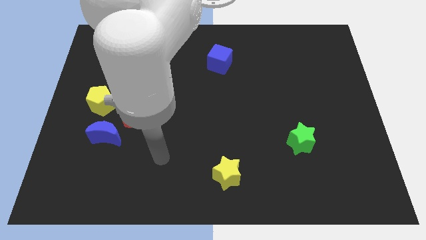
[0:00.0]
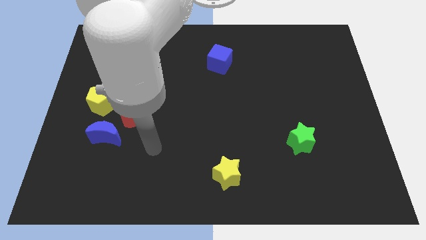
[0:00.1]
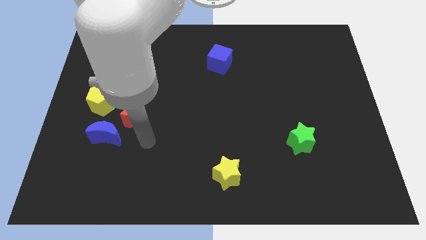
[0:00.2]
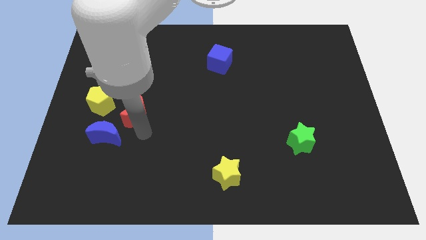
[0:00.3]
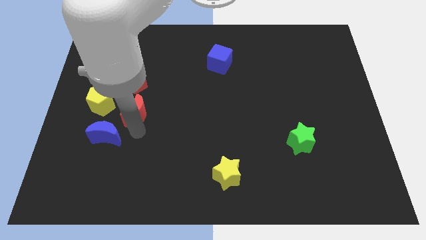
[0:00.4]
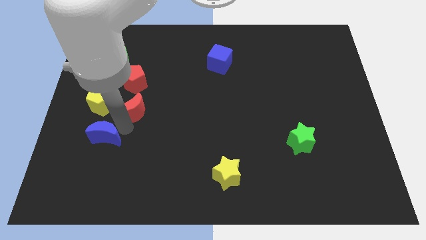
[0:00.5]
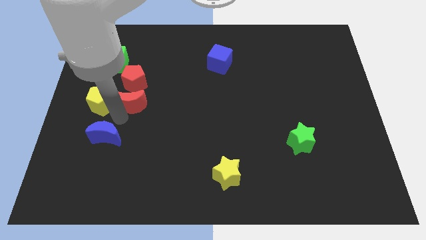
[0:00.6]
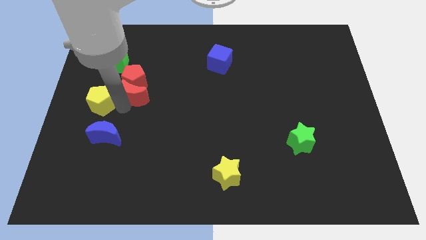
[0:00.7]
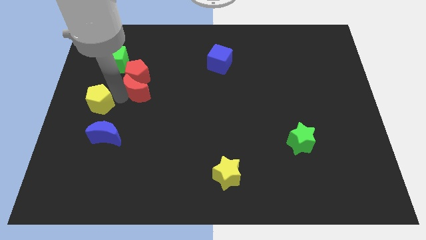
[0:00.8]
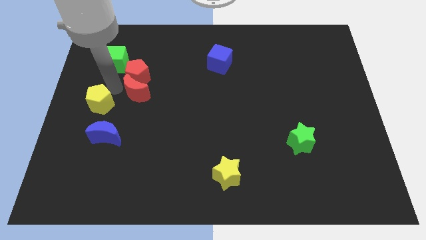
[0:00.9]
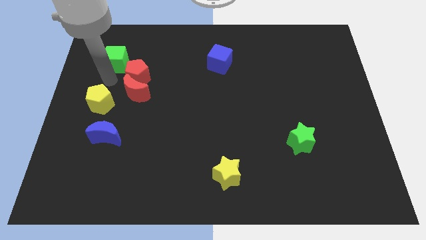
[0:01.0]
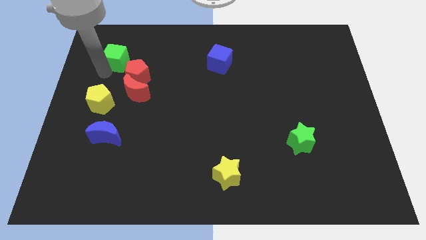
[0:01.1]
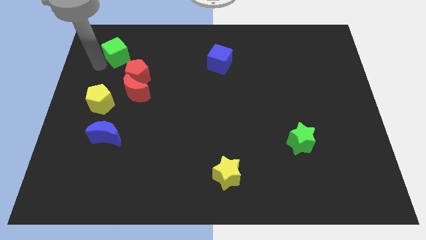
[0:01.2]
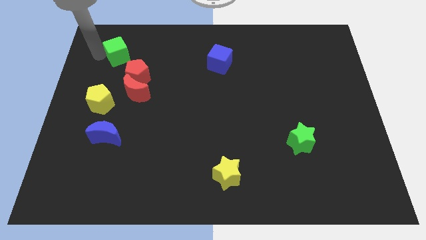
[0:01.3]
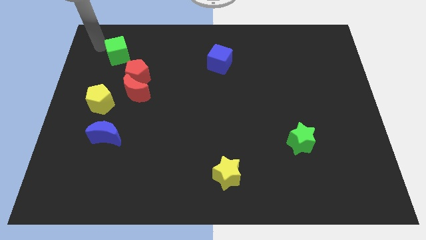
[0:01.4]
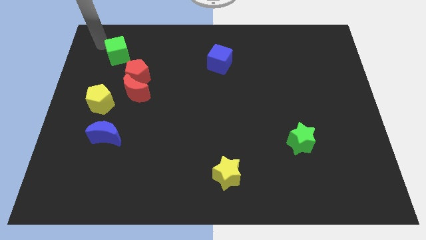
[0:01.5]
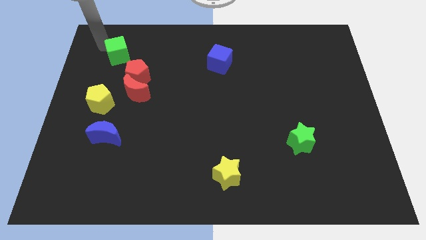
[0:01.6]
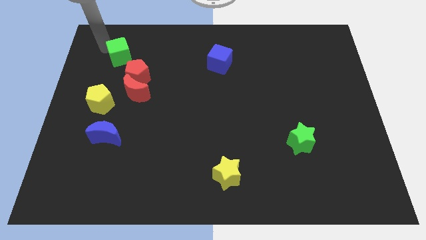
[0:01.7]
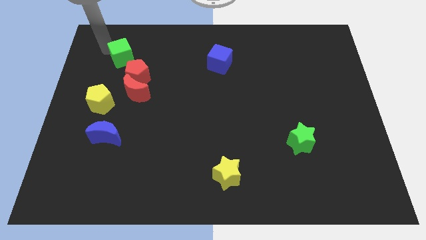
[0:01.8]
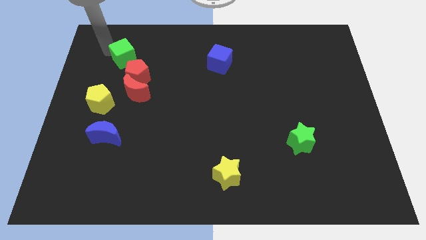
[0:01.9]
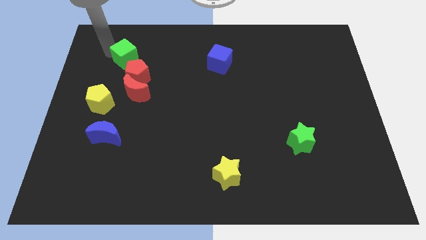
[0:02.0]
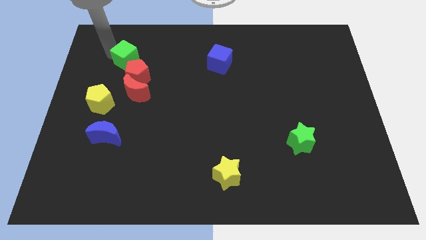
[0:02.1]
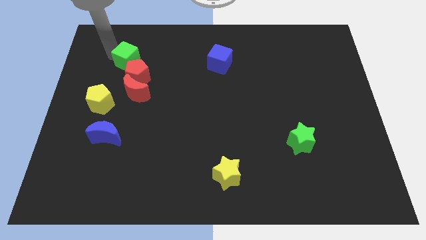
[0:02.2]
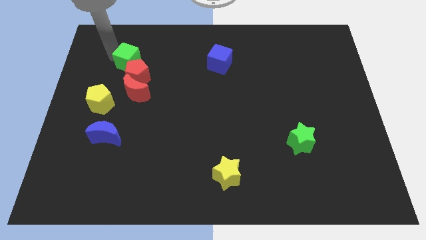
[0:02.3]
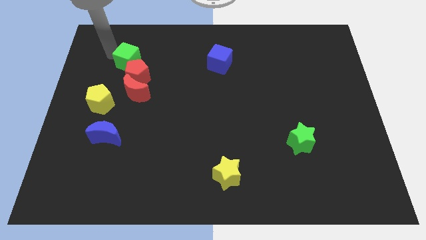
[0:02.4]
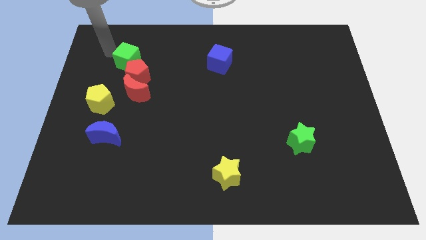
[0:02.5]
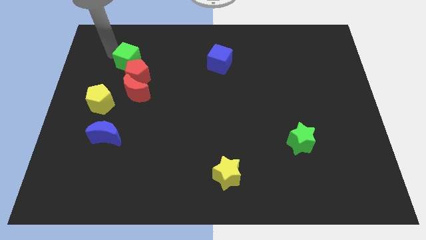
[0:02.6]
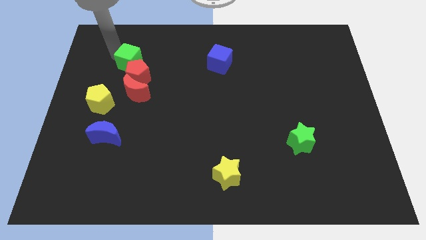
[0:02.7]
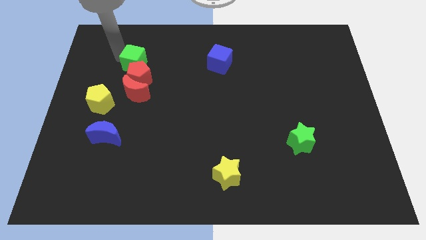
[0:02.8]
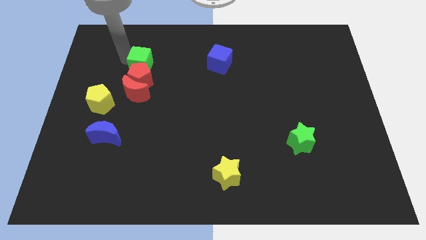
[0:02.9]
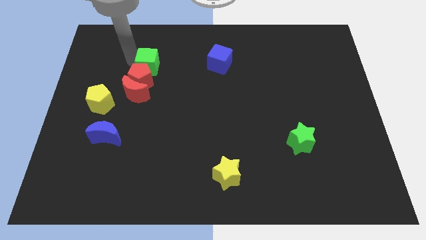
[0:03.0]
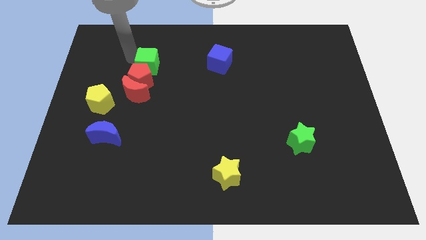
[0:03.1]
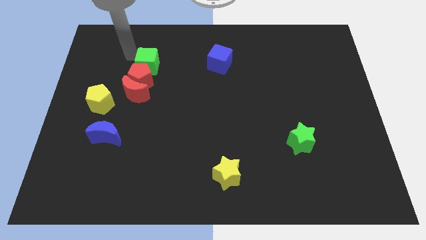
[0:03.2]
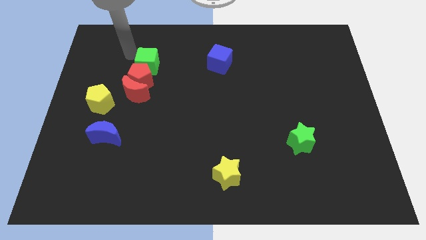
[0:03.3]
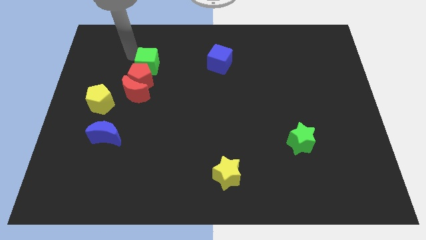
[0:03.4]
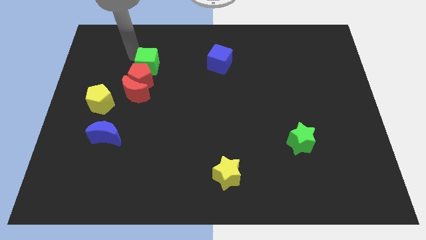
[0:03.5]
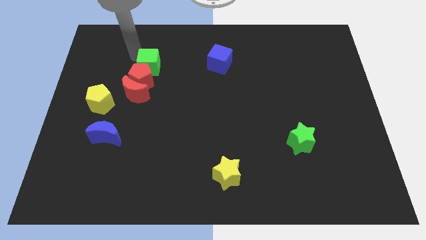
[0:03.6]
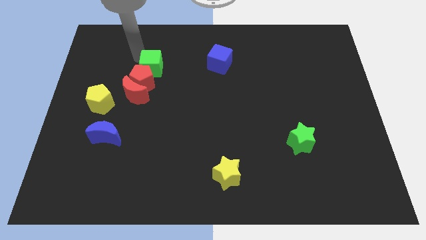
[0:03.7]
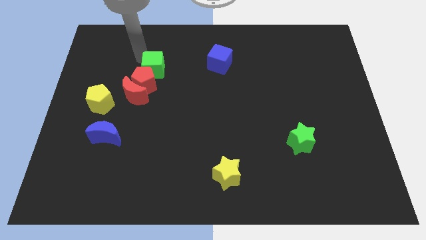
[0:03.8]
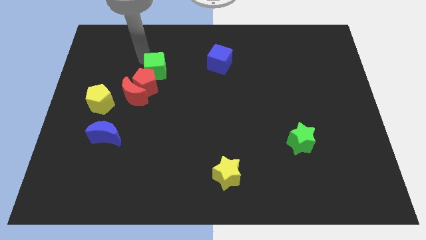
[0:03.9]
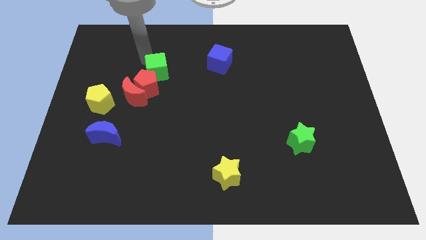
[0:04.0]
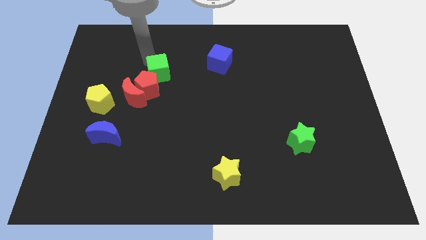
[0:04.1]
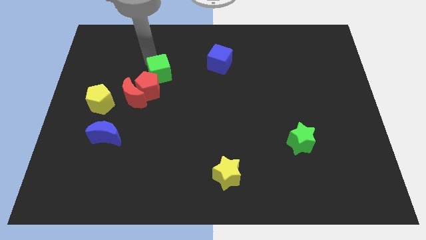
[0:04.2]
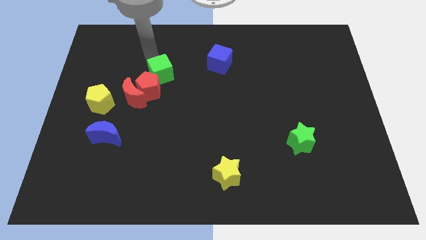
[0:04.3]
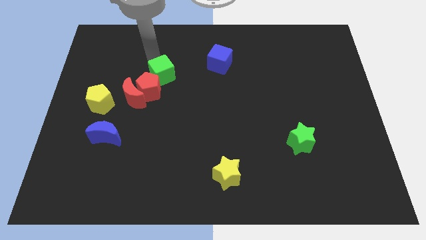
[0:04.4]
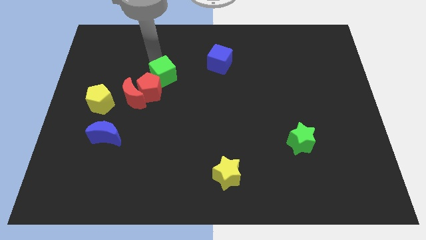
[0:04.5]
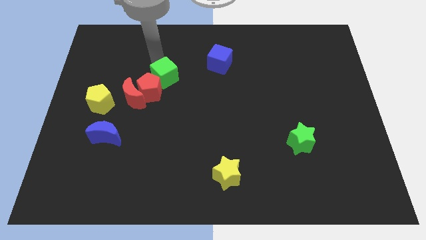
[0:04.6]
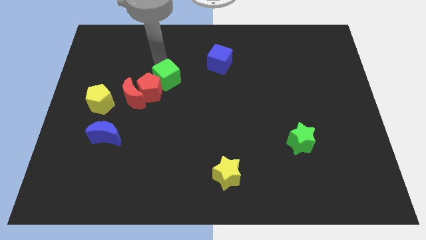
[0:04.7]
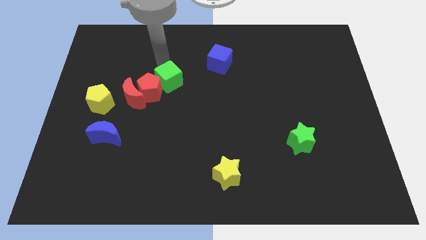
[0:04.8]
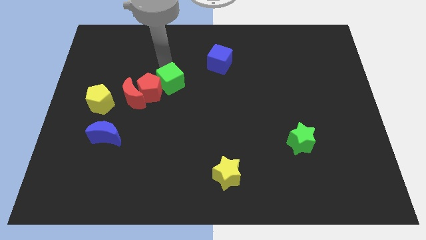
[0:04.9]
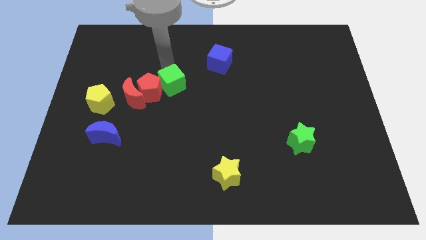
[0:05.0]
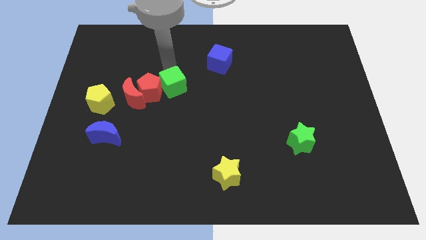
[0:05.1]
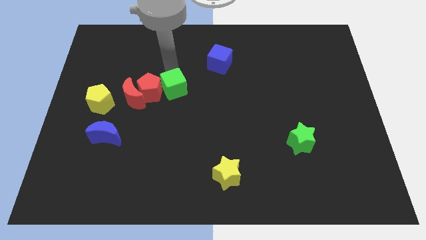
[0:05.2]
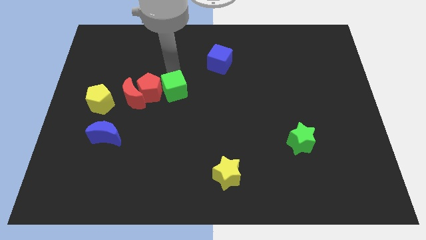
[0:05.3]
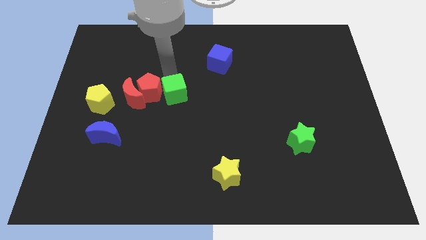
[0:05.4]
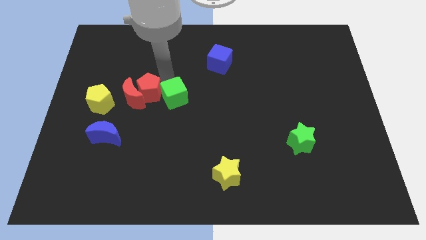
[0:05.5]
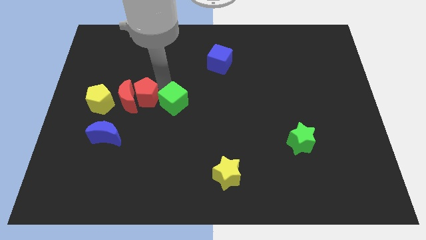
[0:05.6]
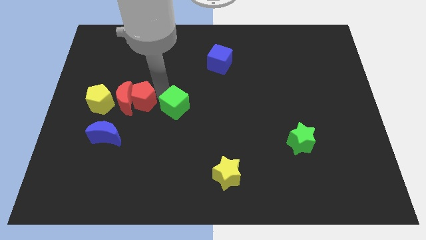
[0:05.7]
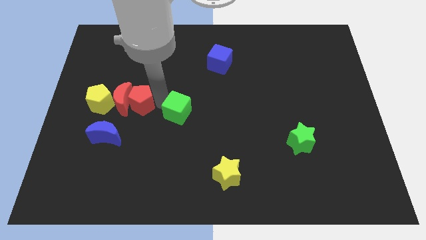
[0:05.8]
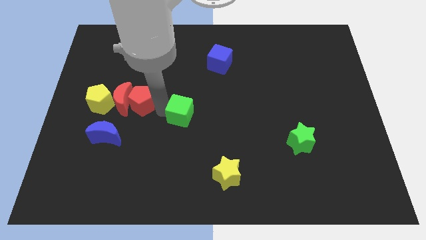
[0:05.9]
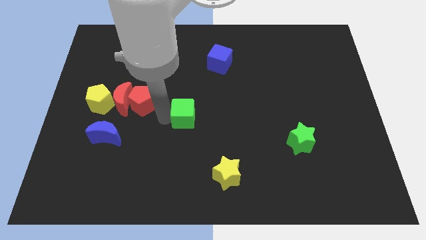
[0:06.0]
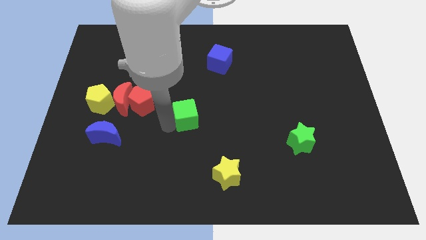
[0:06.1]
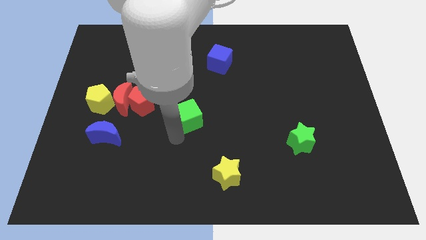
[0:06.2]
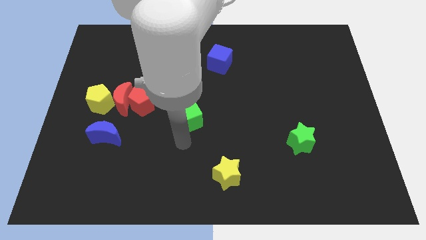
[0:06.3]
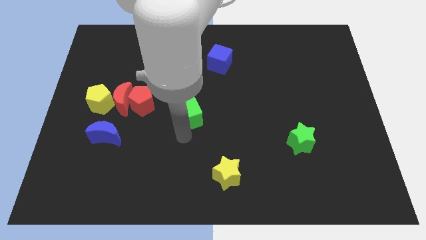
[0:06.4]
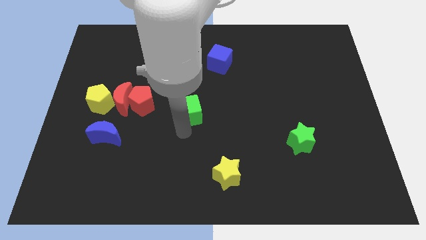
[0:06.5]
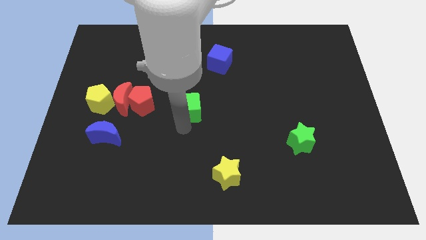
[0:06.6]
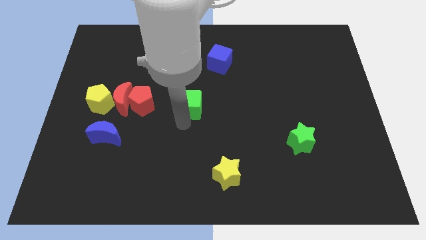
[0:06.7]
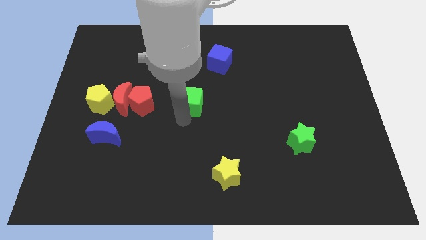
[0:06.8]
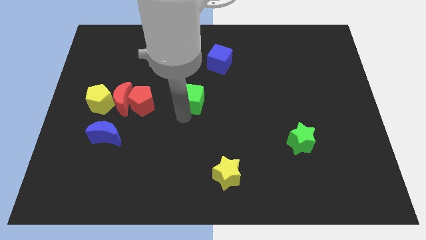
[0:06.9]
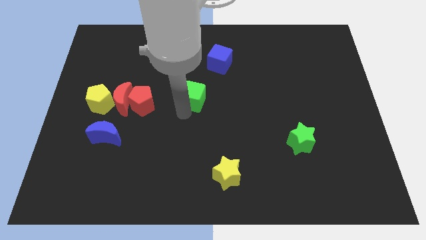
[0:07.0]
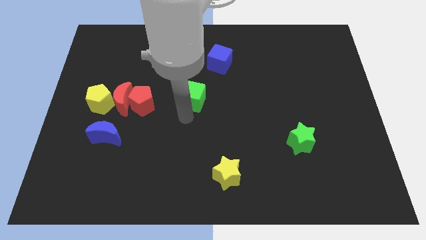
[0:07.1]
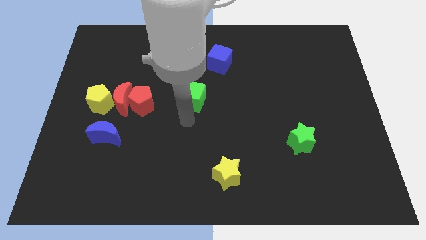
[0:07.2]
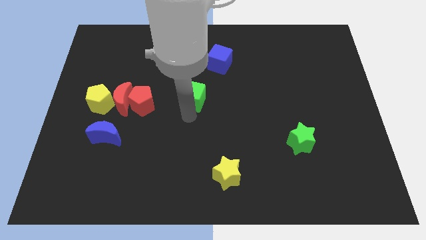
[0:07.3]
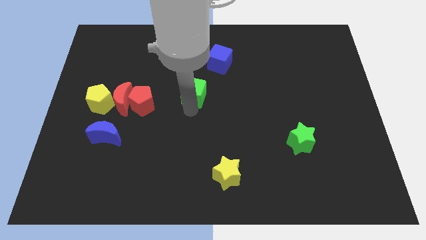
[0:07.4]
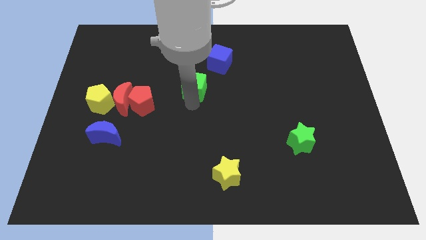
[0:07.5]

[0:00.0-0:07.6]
move the green cube to the bottom left of the blue cube
